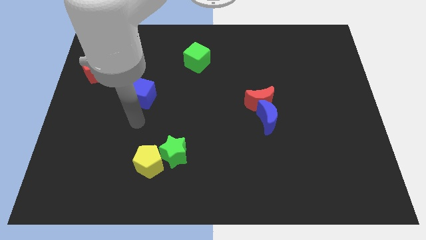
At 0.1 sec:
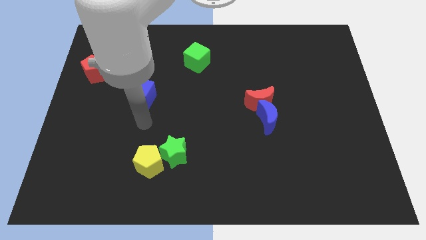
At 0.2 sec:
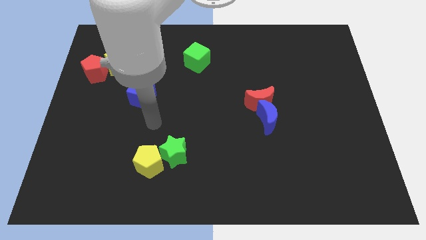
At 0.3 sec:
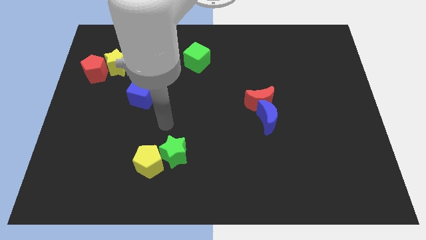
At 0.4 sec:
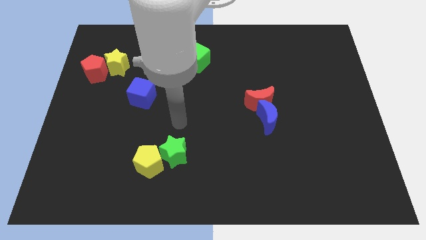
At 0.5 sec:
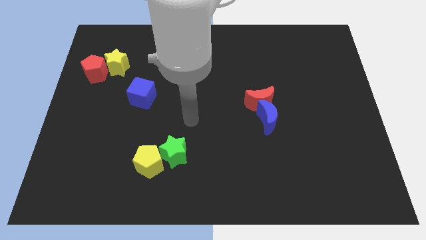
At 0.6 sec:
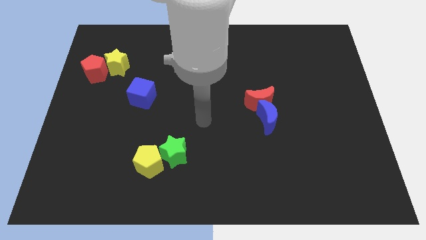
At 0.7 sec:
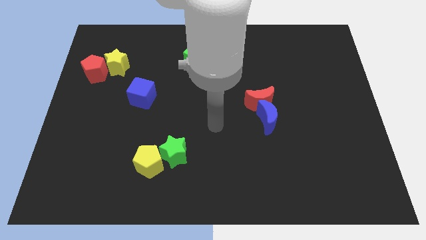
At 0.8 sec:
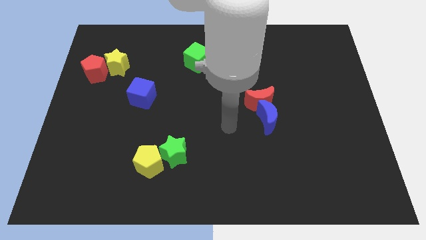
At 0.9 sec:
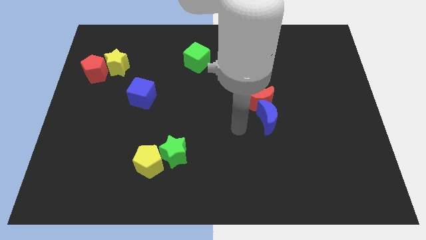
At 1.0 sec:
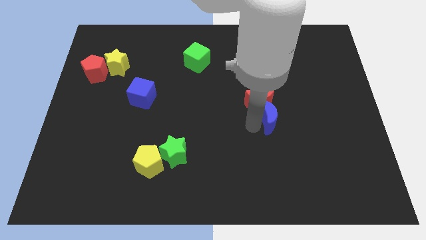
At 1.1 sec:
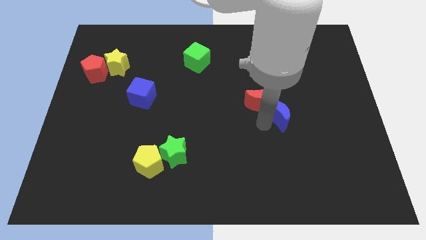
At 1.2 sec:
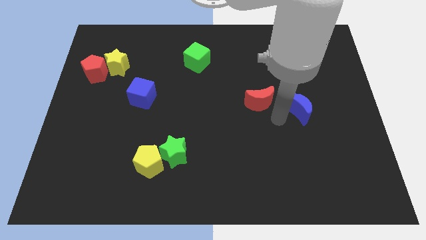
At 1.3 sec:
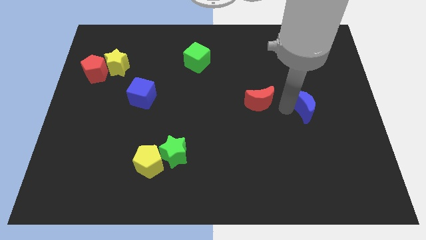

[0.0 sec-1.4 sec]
move the red moon away from the blue moon

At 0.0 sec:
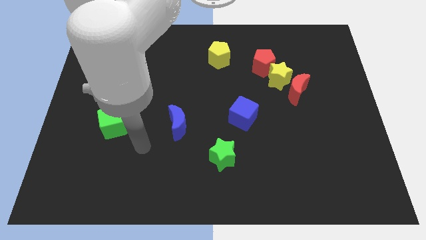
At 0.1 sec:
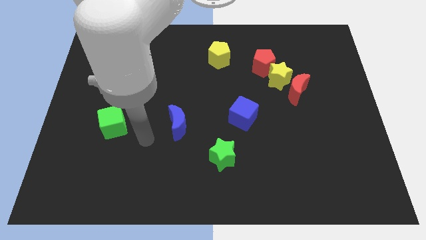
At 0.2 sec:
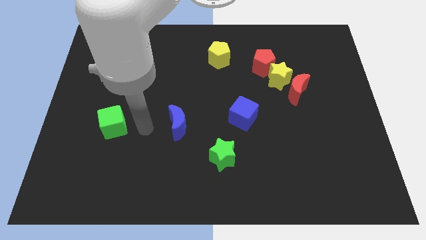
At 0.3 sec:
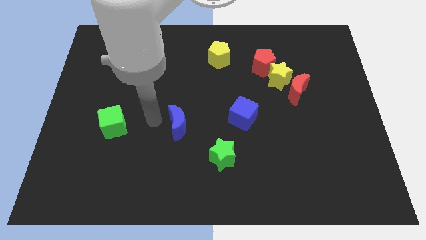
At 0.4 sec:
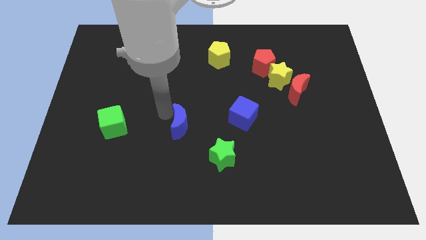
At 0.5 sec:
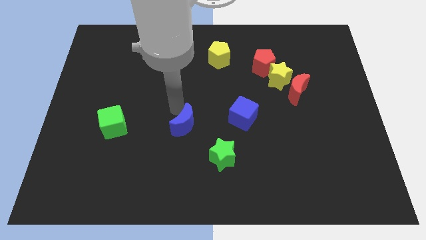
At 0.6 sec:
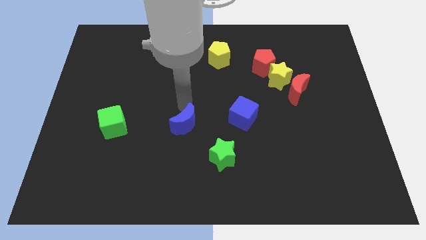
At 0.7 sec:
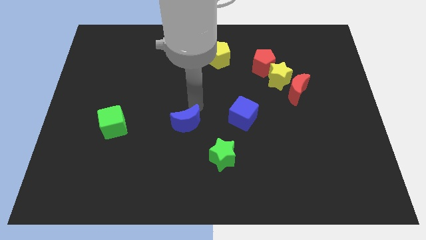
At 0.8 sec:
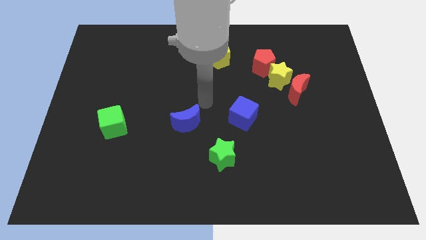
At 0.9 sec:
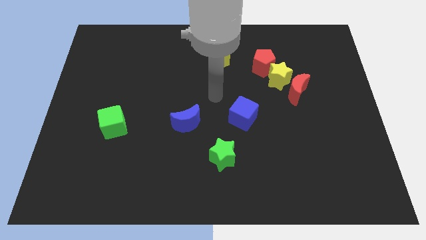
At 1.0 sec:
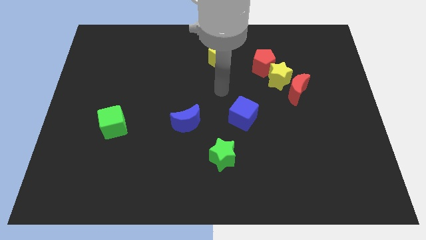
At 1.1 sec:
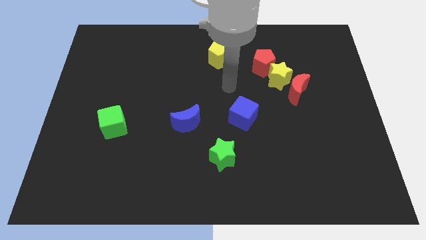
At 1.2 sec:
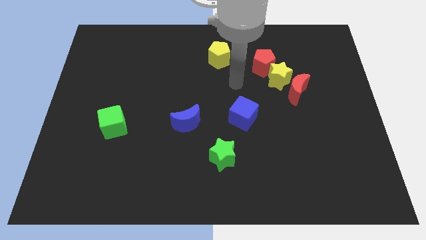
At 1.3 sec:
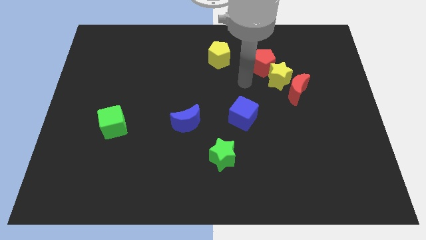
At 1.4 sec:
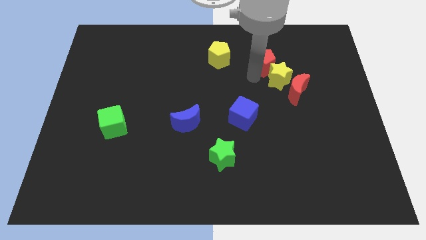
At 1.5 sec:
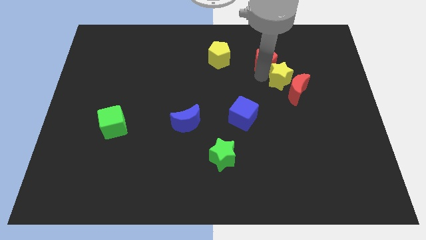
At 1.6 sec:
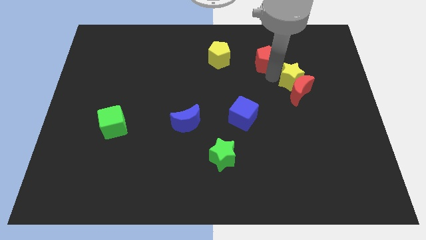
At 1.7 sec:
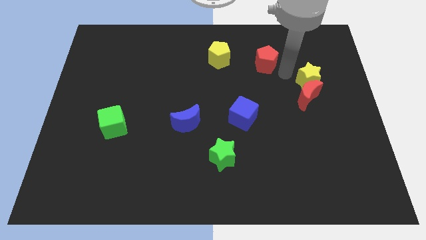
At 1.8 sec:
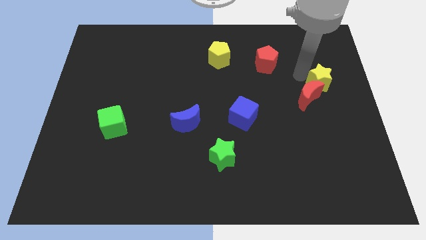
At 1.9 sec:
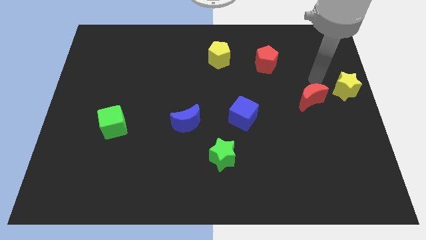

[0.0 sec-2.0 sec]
pull the red moon apart from the yellow star

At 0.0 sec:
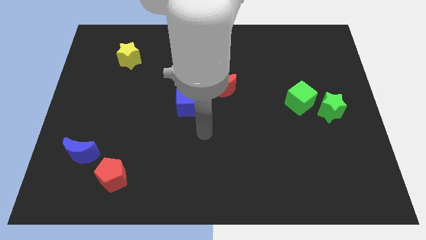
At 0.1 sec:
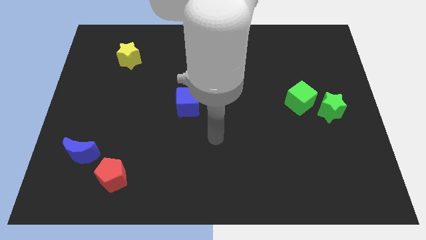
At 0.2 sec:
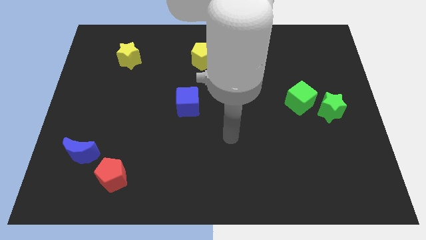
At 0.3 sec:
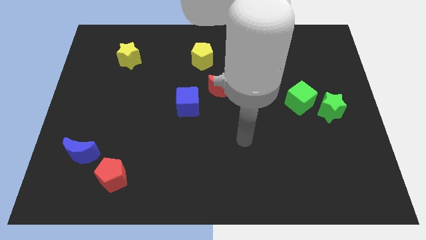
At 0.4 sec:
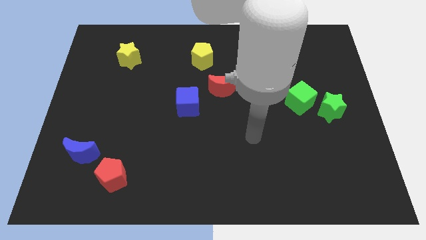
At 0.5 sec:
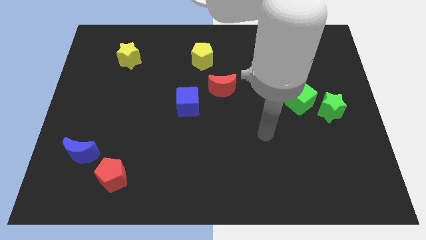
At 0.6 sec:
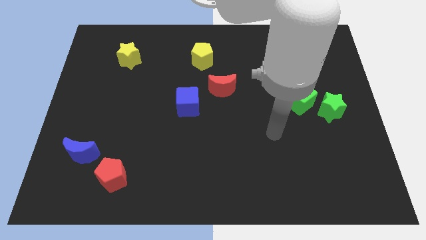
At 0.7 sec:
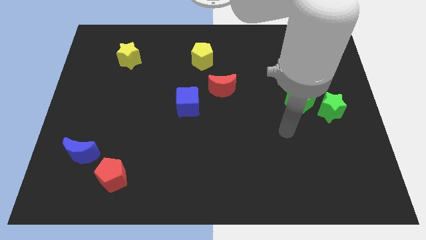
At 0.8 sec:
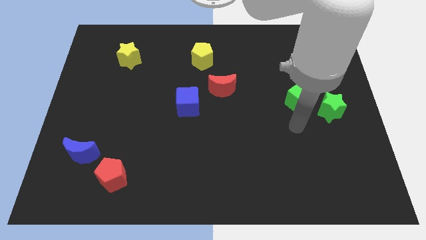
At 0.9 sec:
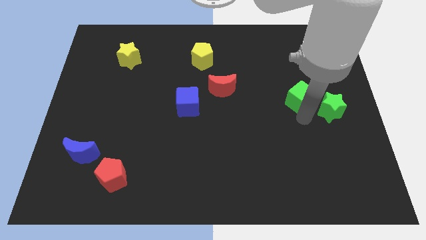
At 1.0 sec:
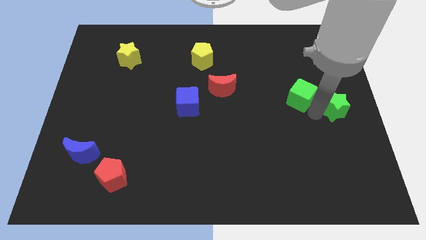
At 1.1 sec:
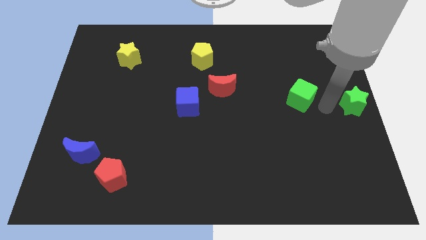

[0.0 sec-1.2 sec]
pull the green cube apart from the green star

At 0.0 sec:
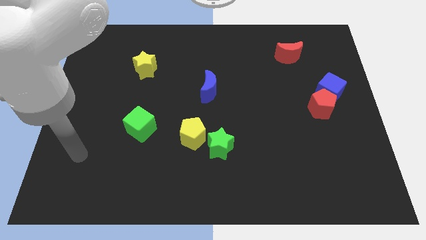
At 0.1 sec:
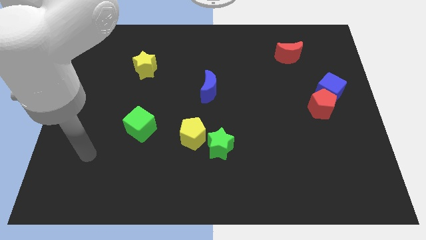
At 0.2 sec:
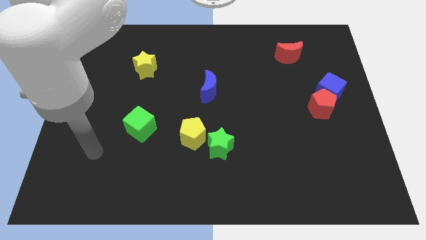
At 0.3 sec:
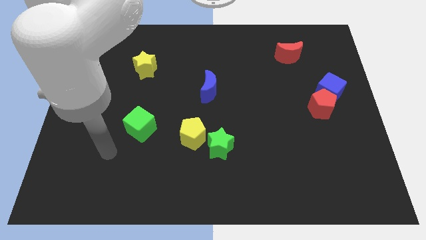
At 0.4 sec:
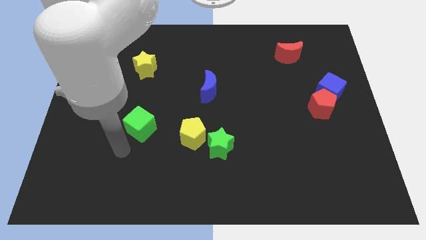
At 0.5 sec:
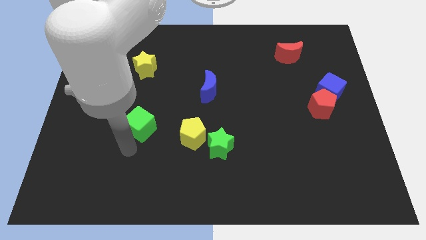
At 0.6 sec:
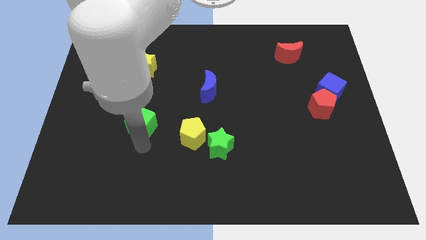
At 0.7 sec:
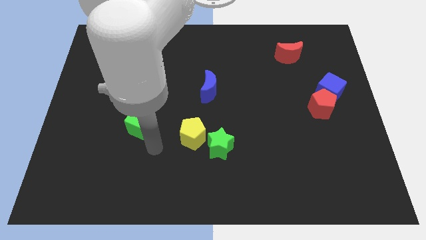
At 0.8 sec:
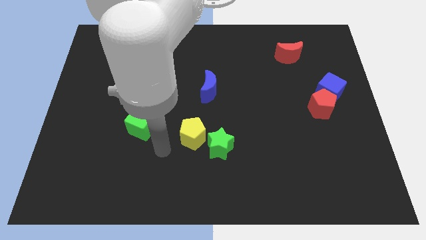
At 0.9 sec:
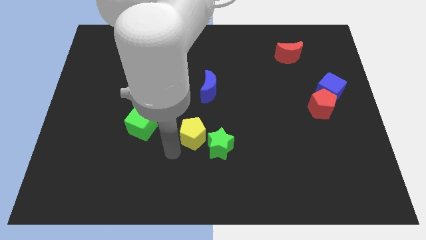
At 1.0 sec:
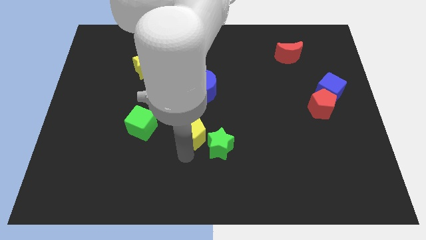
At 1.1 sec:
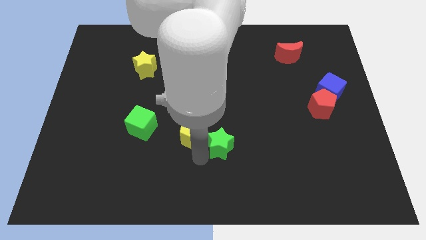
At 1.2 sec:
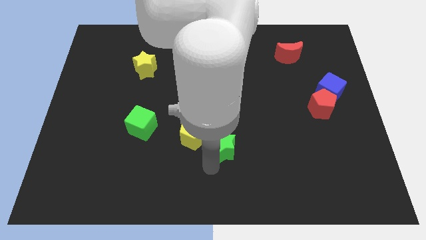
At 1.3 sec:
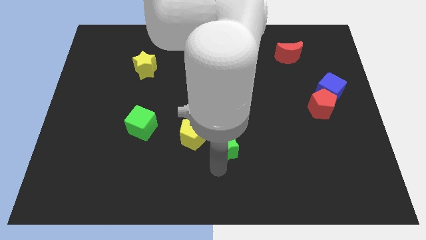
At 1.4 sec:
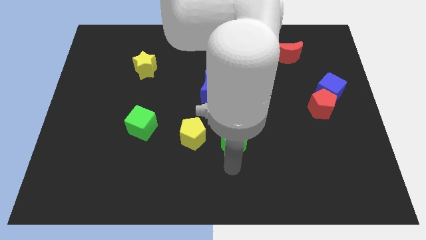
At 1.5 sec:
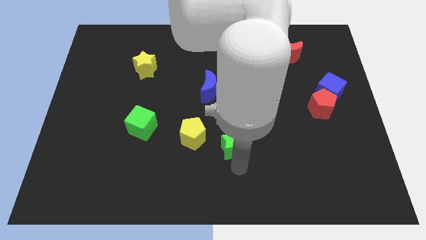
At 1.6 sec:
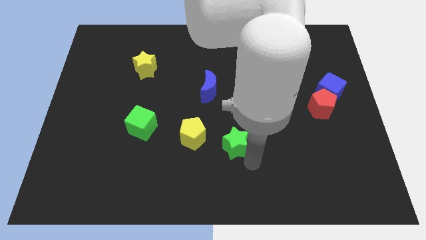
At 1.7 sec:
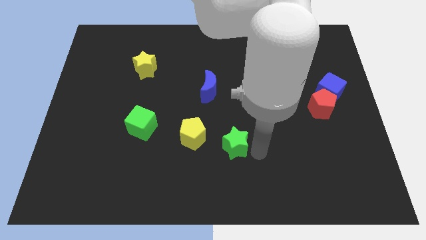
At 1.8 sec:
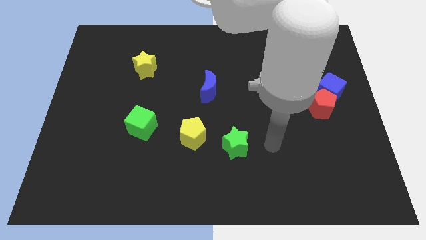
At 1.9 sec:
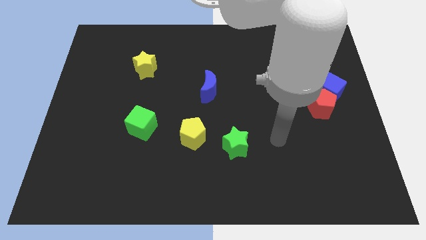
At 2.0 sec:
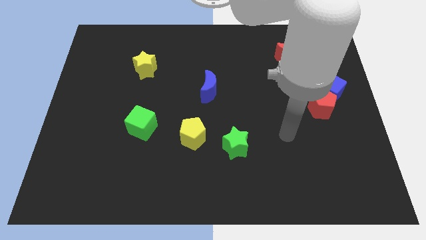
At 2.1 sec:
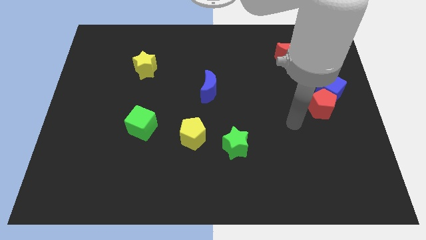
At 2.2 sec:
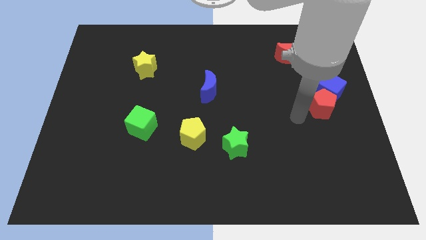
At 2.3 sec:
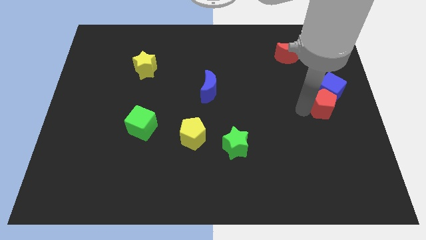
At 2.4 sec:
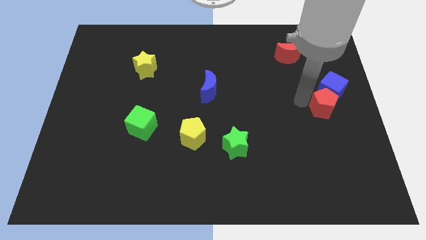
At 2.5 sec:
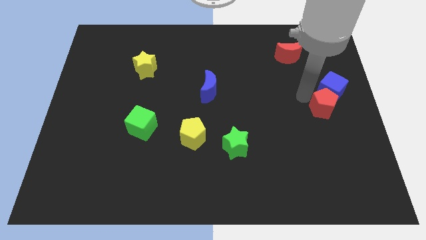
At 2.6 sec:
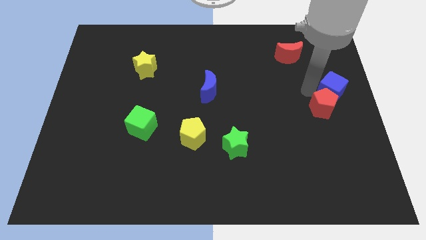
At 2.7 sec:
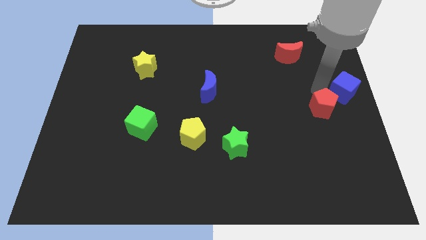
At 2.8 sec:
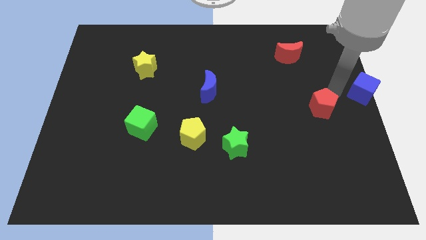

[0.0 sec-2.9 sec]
move the red pentagon away from the blue cube

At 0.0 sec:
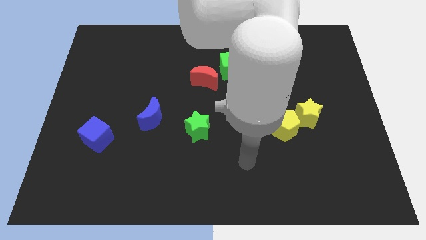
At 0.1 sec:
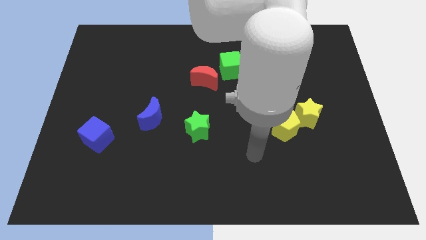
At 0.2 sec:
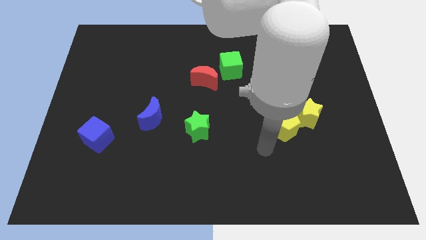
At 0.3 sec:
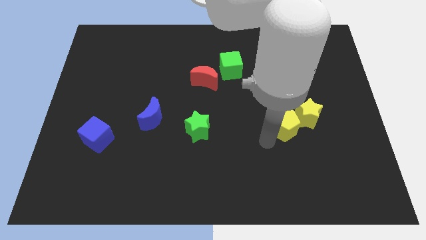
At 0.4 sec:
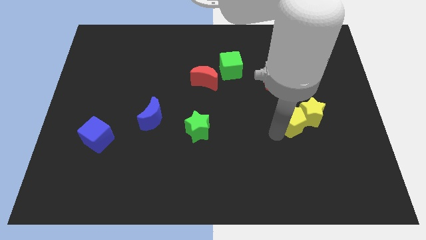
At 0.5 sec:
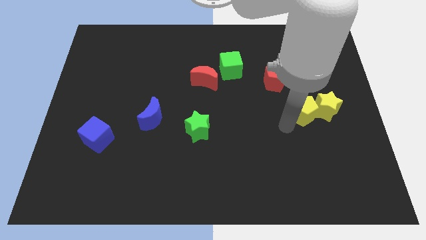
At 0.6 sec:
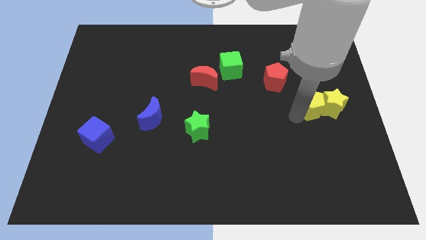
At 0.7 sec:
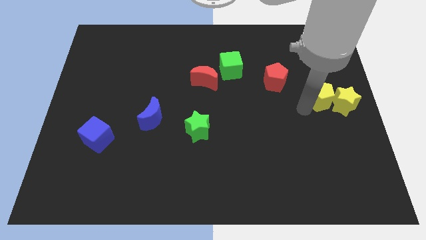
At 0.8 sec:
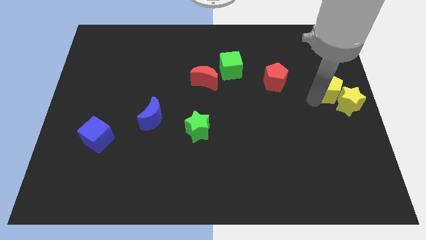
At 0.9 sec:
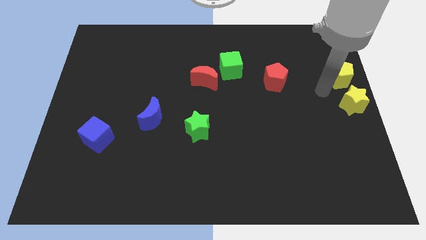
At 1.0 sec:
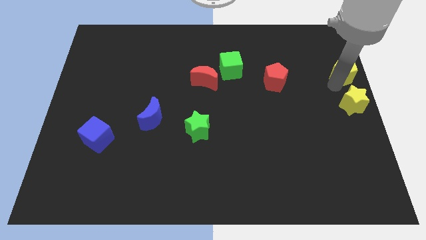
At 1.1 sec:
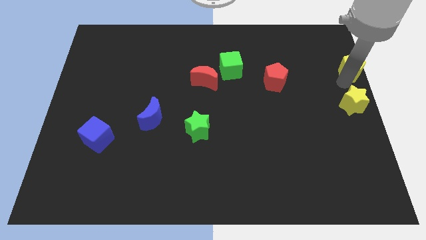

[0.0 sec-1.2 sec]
pull the yellow star apart from the yellow pentagon

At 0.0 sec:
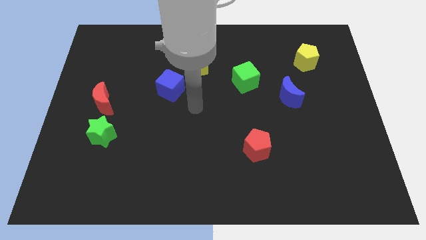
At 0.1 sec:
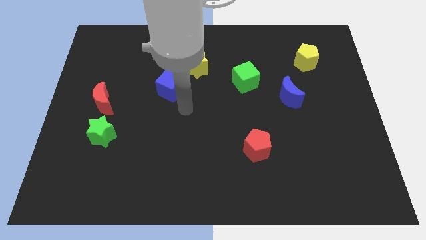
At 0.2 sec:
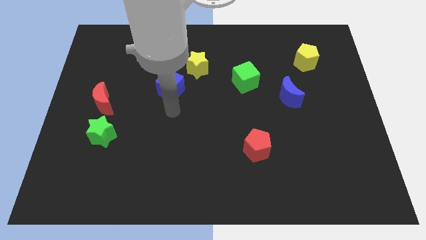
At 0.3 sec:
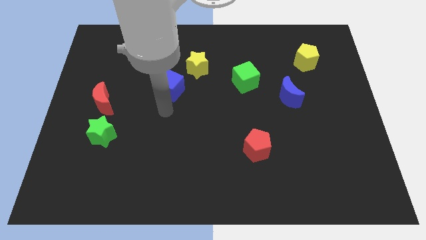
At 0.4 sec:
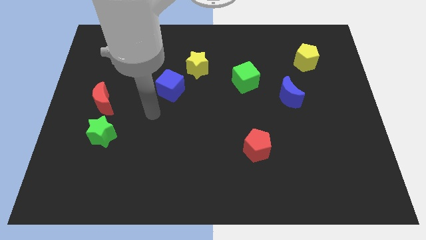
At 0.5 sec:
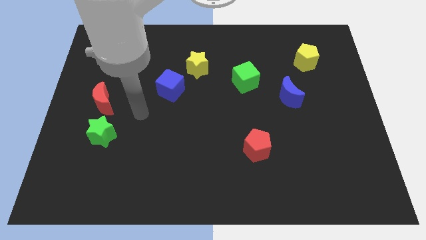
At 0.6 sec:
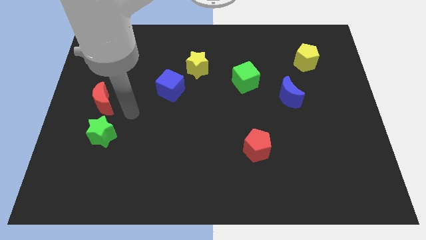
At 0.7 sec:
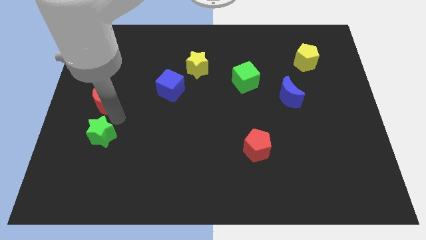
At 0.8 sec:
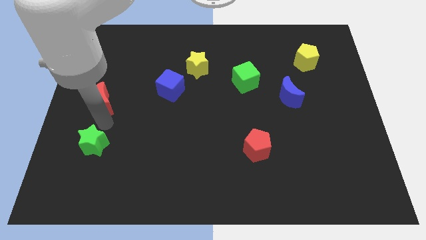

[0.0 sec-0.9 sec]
separate the red moon from the green star
